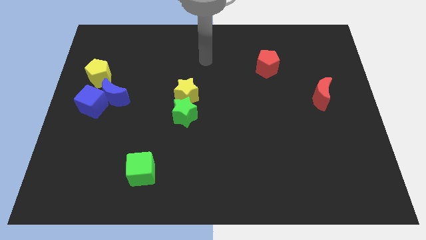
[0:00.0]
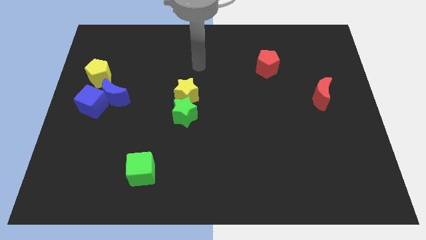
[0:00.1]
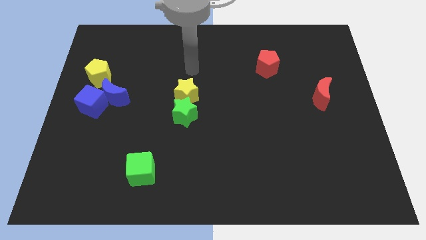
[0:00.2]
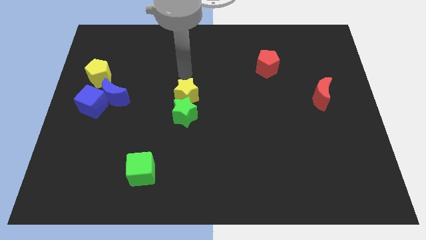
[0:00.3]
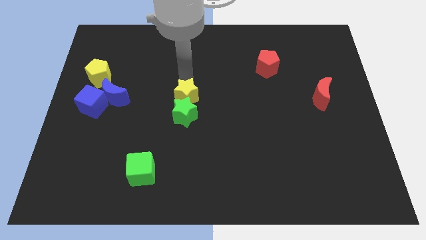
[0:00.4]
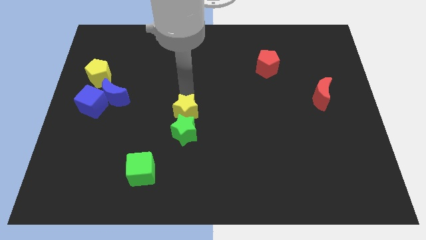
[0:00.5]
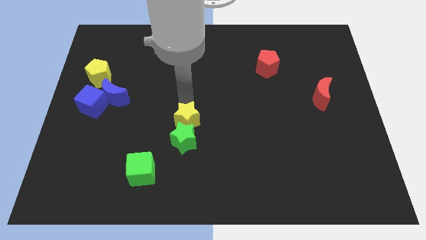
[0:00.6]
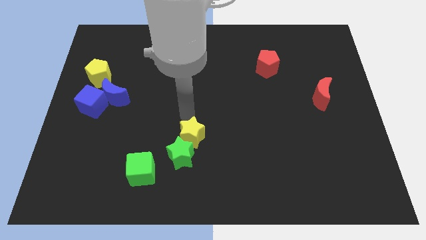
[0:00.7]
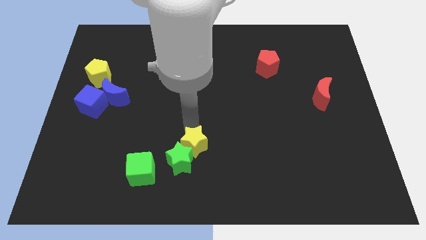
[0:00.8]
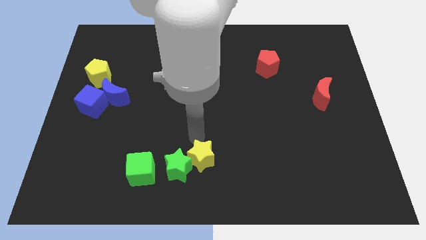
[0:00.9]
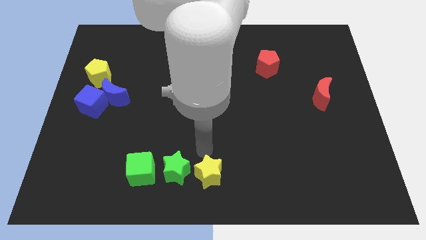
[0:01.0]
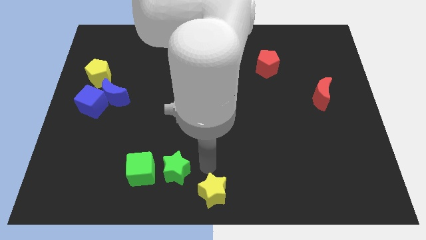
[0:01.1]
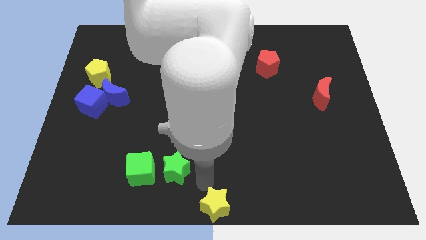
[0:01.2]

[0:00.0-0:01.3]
move the green star away from the yellow star

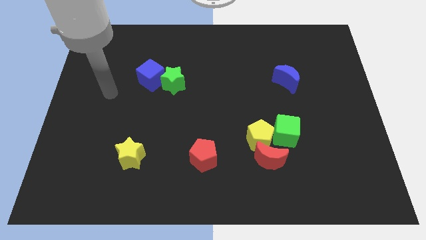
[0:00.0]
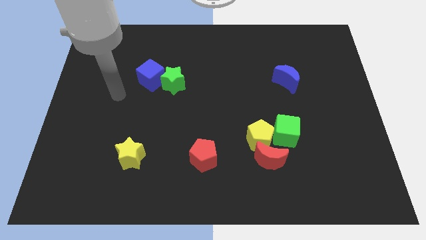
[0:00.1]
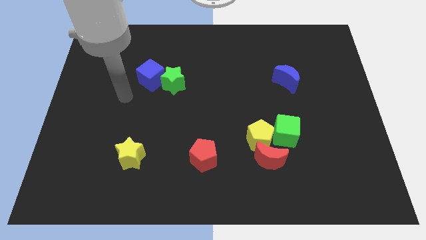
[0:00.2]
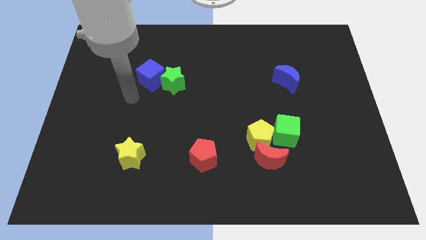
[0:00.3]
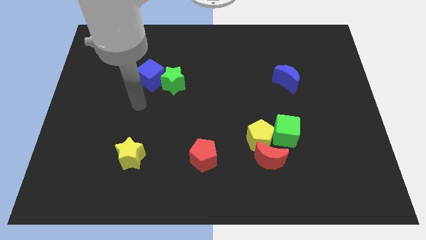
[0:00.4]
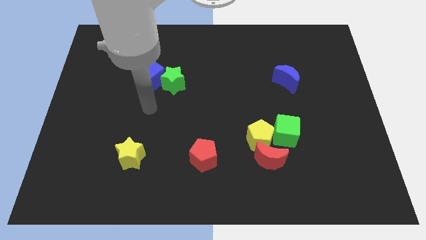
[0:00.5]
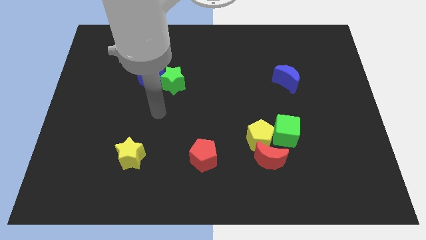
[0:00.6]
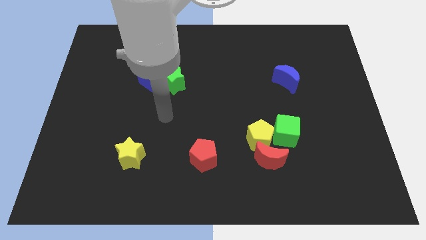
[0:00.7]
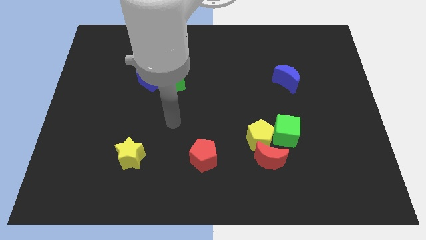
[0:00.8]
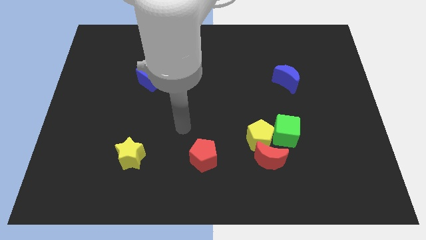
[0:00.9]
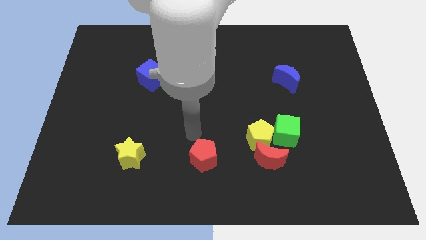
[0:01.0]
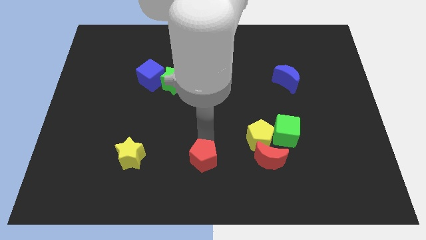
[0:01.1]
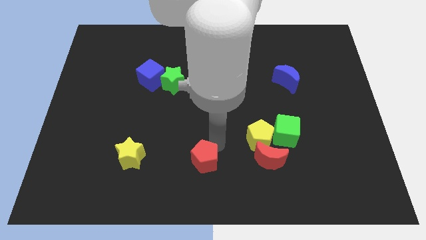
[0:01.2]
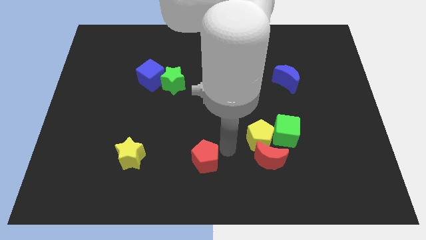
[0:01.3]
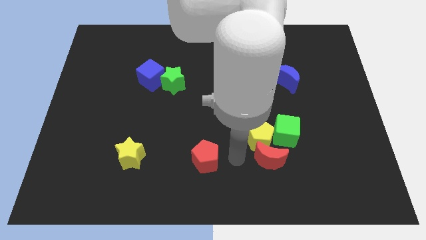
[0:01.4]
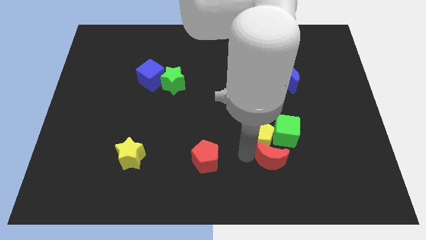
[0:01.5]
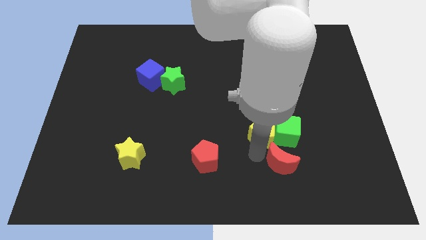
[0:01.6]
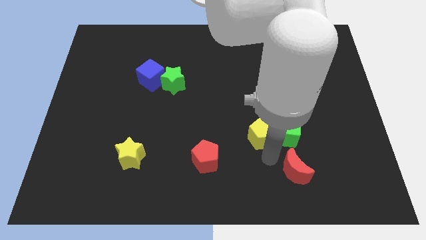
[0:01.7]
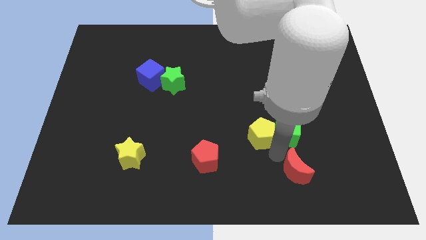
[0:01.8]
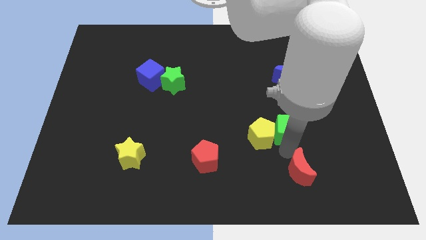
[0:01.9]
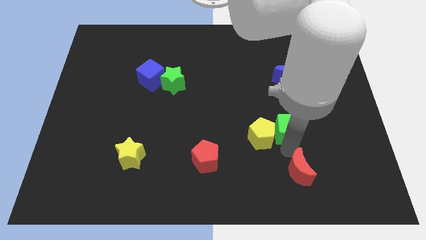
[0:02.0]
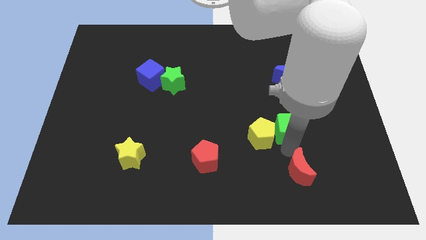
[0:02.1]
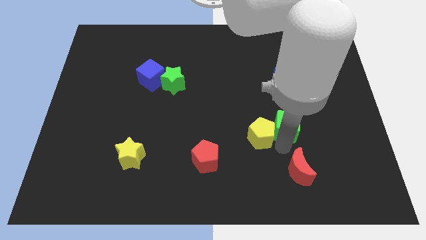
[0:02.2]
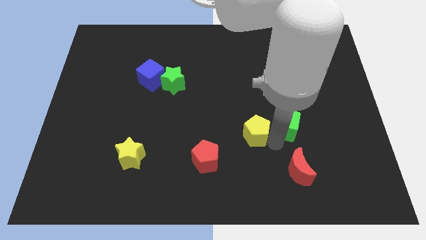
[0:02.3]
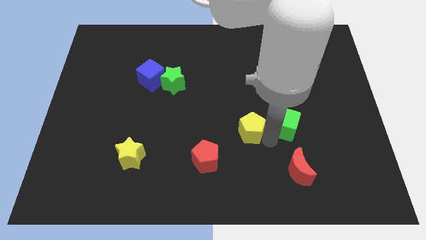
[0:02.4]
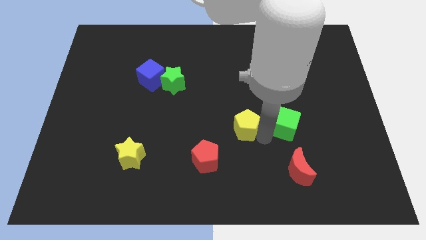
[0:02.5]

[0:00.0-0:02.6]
pull the yellow pentagon apart from the red moon and green cube

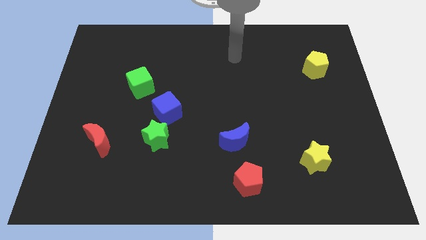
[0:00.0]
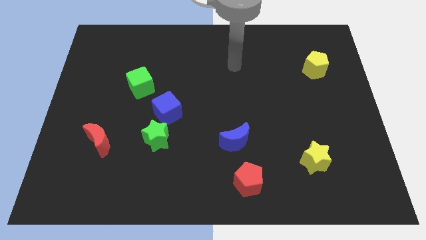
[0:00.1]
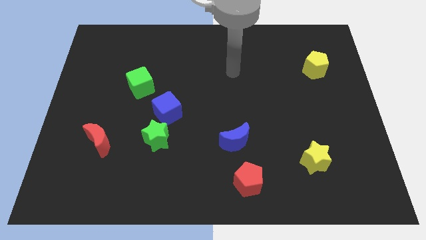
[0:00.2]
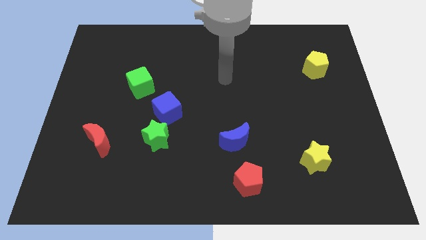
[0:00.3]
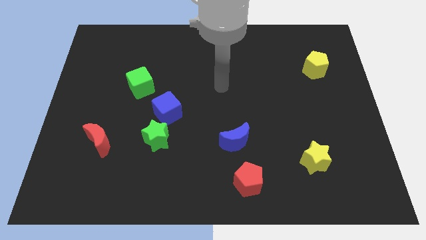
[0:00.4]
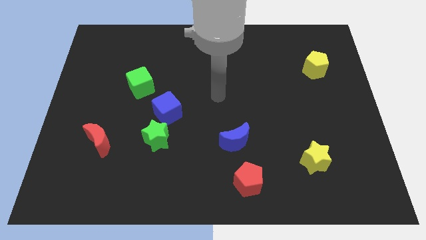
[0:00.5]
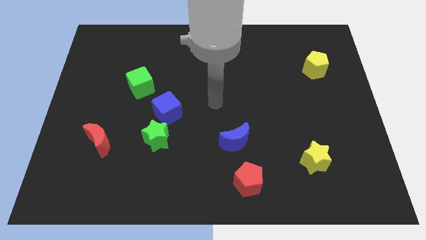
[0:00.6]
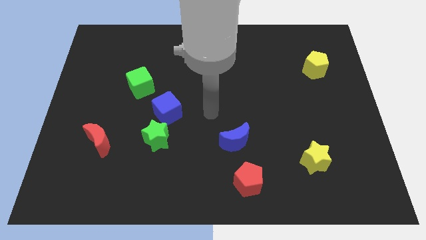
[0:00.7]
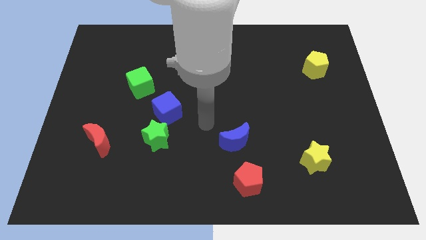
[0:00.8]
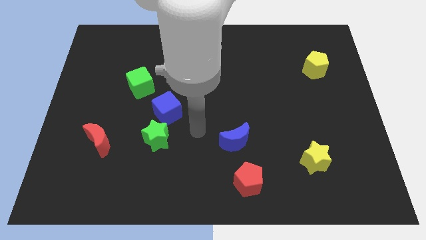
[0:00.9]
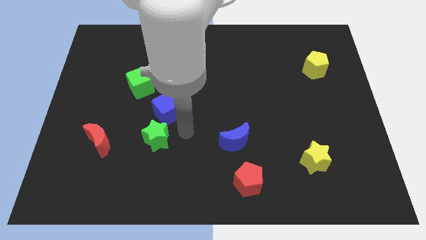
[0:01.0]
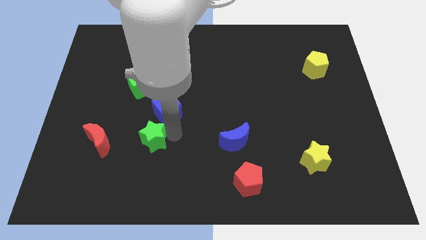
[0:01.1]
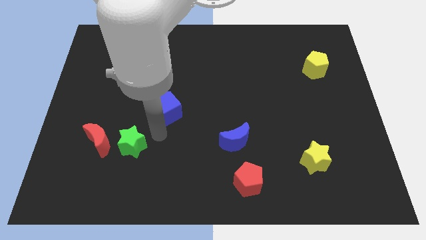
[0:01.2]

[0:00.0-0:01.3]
move the blue cube away from the green star

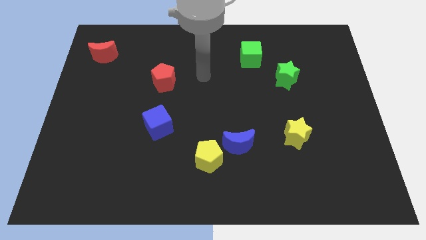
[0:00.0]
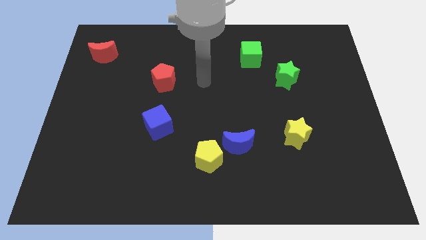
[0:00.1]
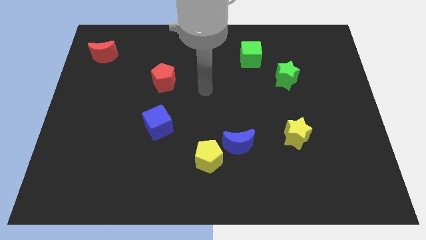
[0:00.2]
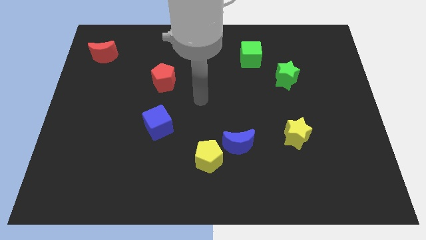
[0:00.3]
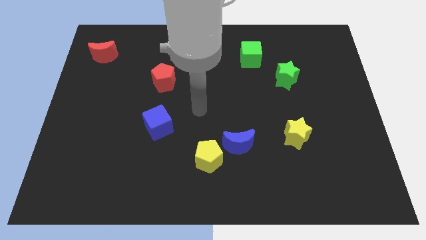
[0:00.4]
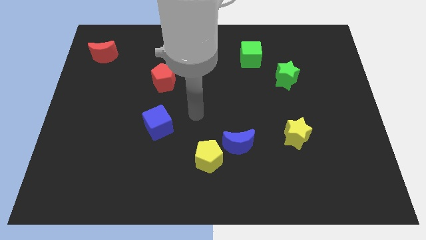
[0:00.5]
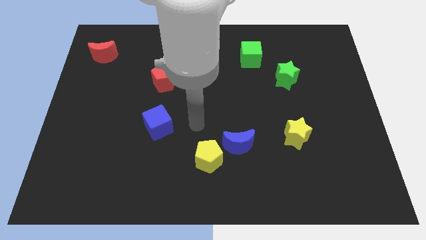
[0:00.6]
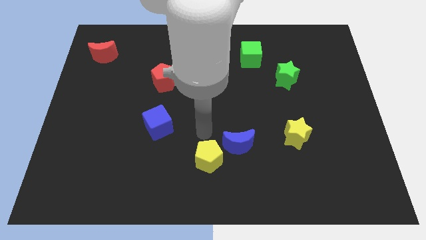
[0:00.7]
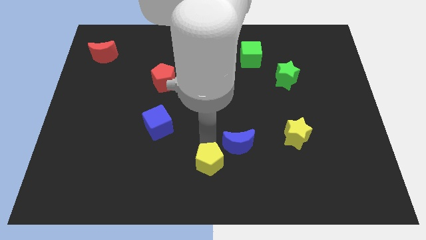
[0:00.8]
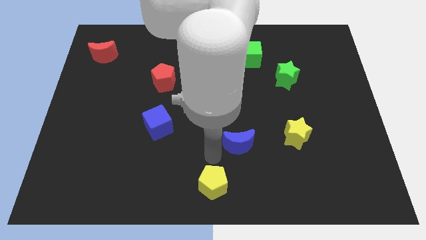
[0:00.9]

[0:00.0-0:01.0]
separate the blue moon from the yellow pentagon

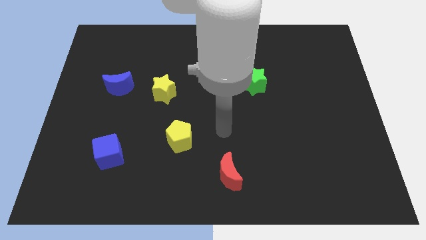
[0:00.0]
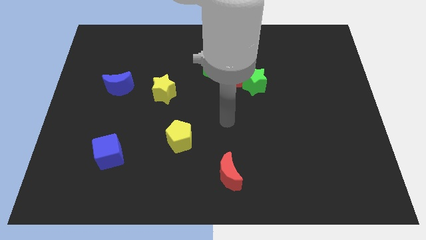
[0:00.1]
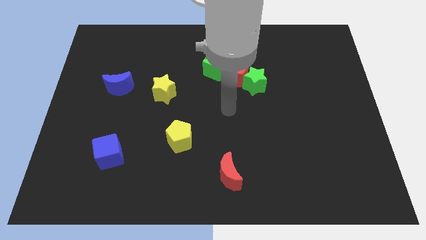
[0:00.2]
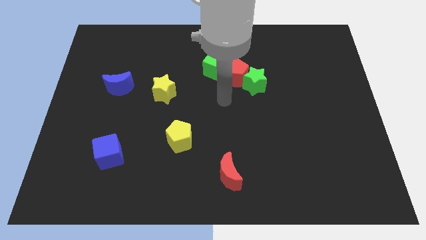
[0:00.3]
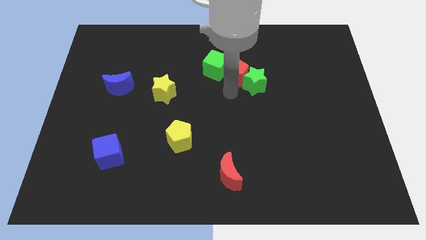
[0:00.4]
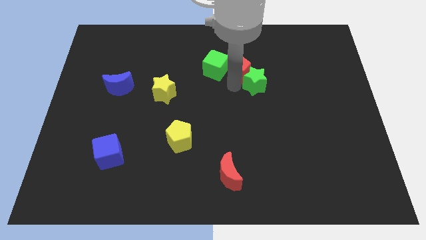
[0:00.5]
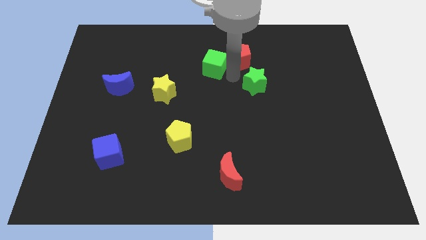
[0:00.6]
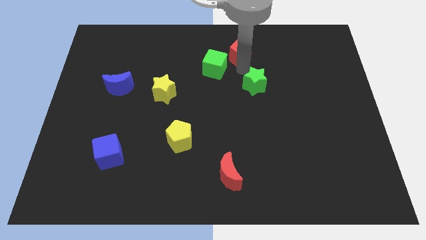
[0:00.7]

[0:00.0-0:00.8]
separate the green star from the red pentagon

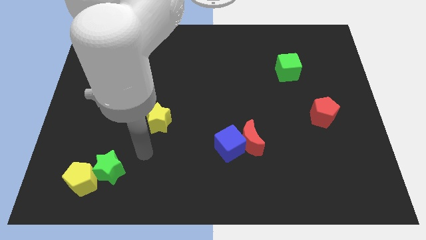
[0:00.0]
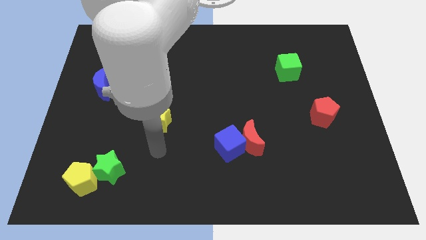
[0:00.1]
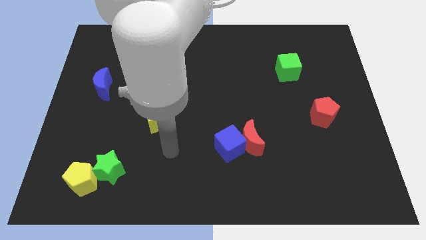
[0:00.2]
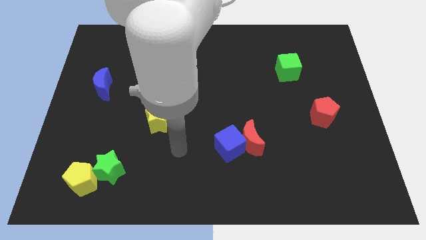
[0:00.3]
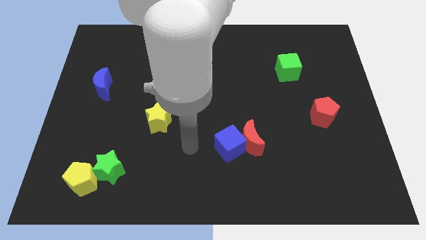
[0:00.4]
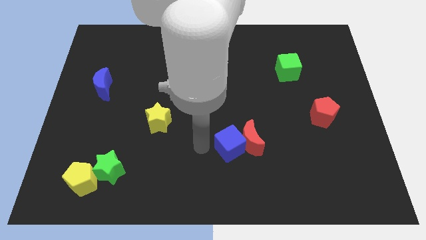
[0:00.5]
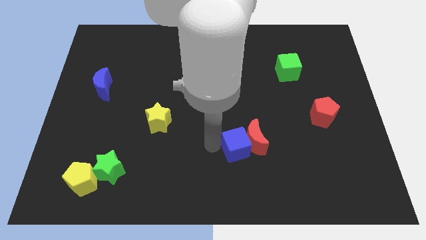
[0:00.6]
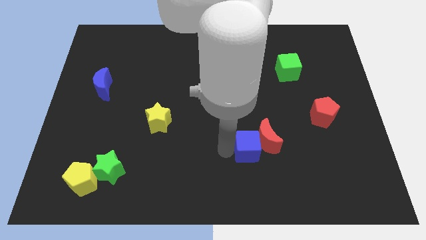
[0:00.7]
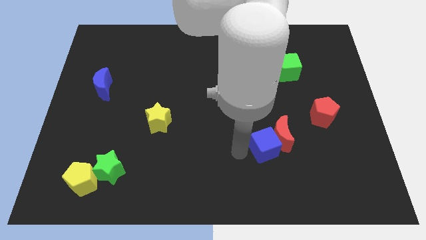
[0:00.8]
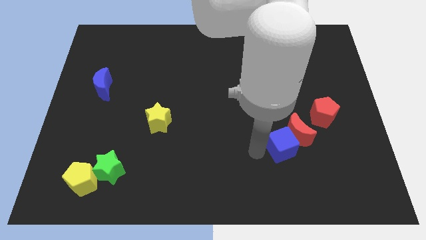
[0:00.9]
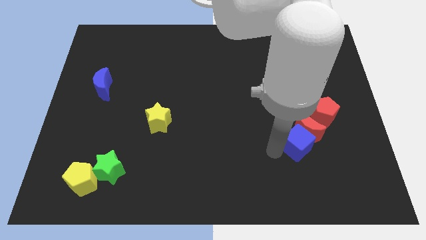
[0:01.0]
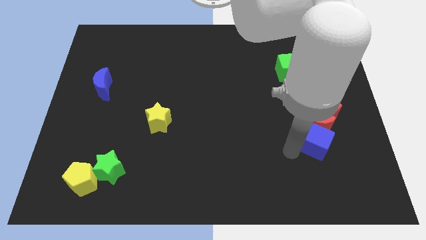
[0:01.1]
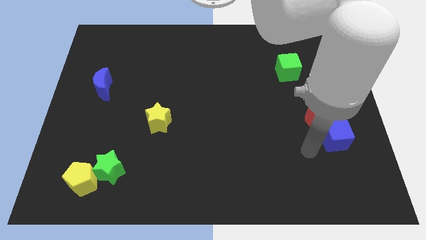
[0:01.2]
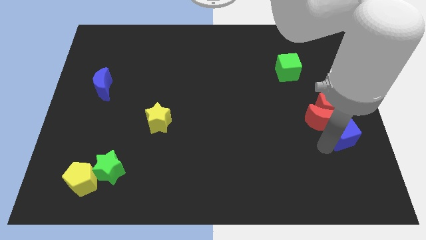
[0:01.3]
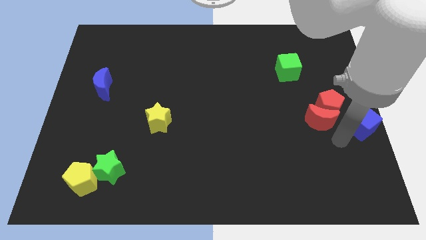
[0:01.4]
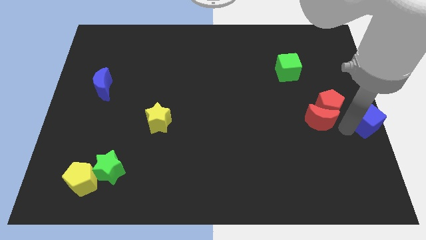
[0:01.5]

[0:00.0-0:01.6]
pull the red moon apart from the blue cube

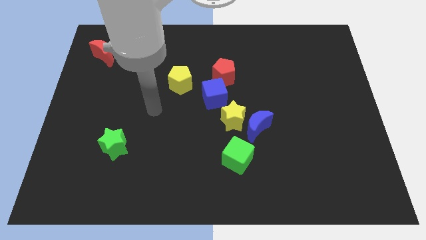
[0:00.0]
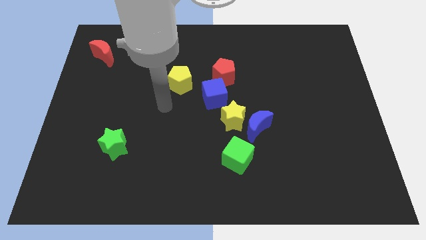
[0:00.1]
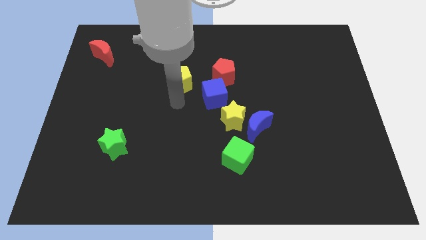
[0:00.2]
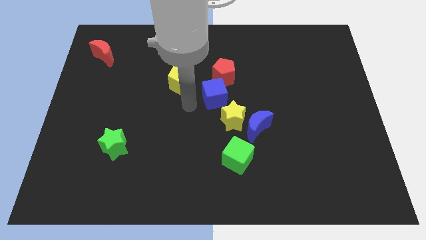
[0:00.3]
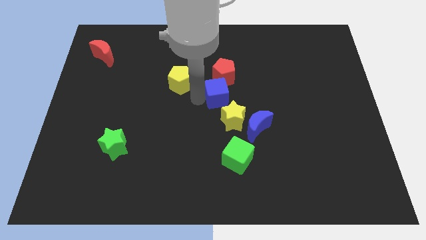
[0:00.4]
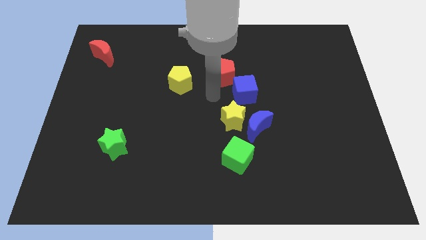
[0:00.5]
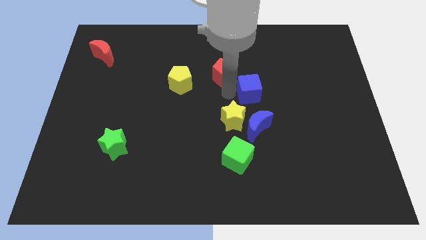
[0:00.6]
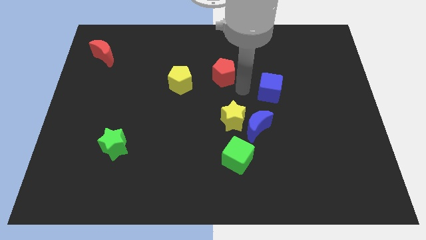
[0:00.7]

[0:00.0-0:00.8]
pull the red pentagon apart from the blue cube
